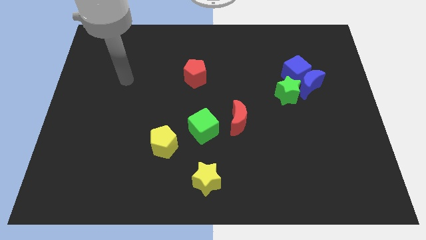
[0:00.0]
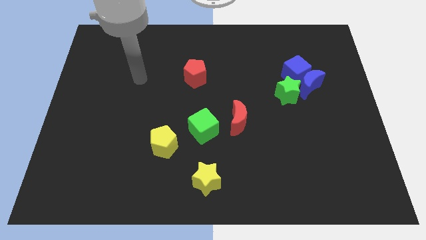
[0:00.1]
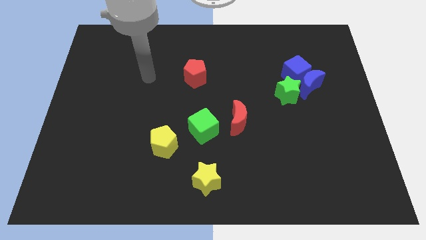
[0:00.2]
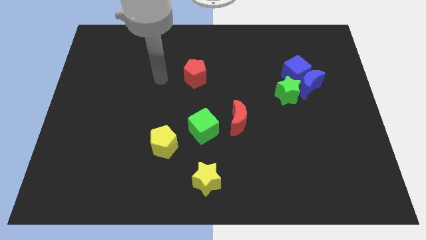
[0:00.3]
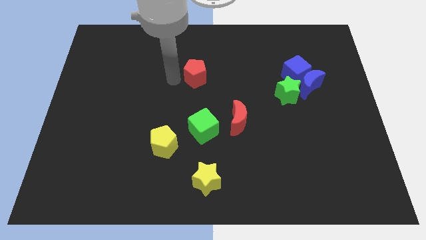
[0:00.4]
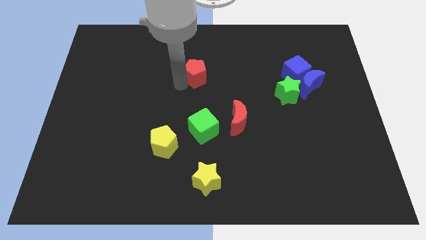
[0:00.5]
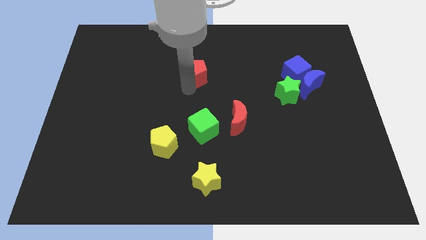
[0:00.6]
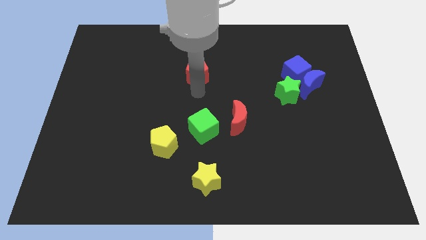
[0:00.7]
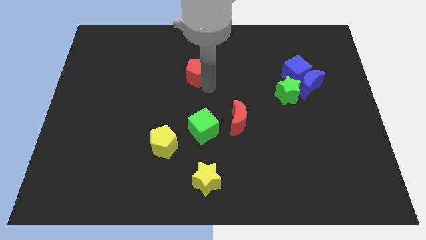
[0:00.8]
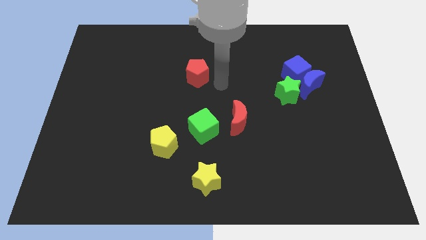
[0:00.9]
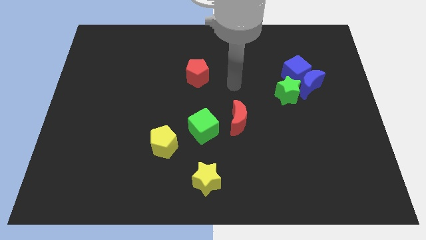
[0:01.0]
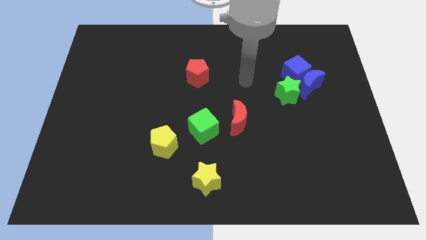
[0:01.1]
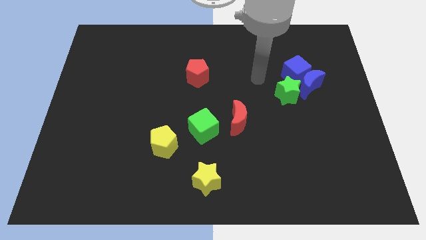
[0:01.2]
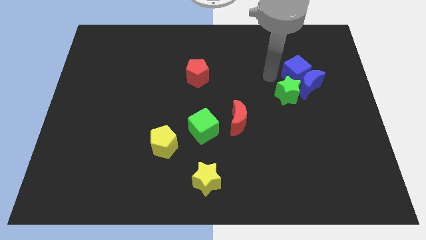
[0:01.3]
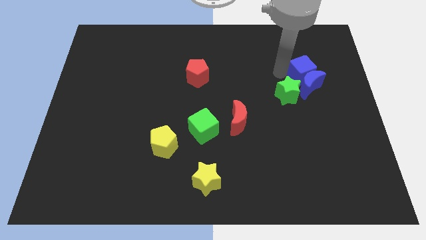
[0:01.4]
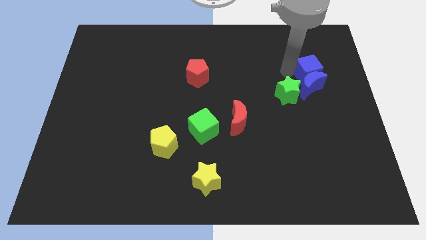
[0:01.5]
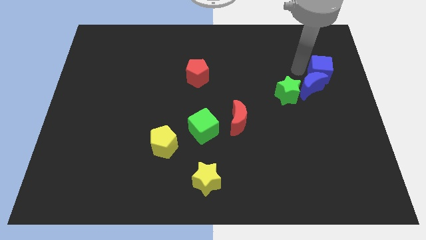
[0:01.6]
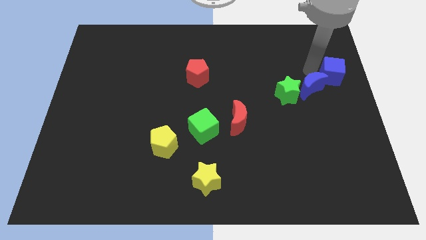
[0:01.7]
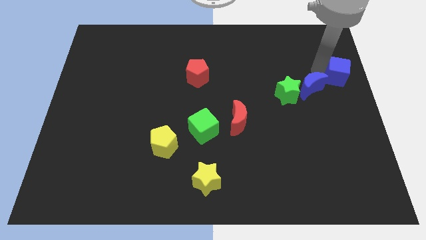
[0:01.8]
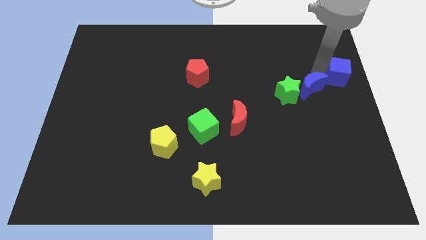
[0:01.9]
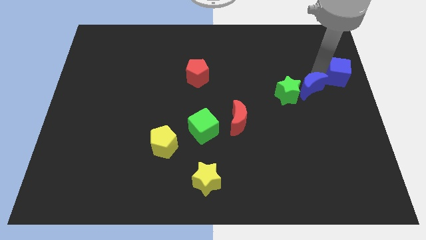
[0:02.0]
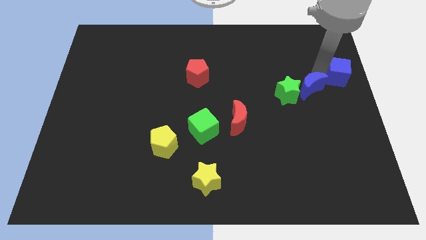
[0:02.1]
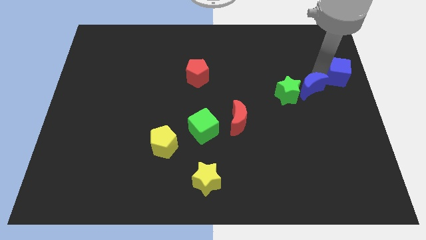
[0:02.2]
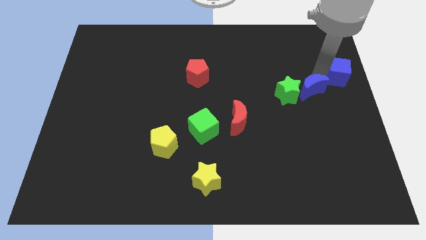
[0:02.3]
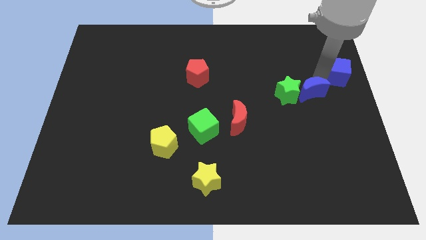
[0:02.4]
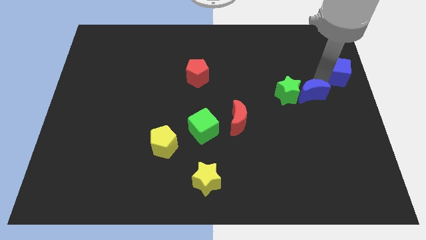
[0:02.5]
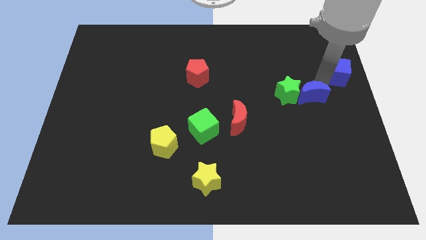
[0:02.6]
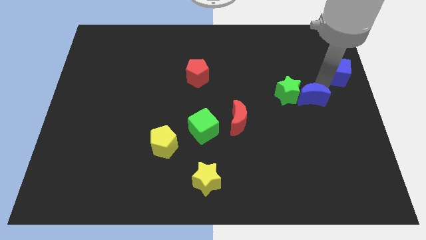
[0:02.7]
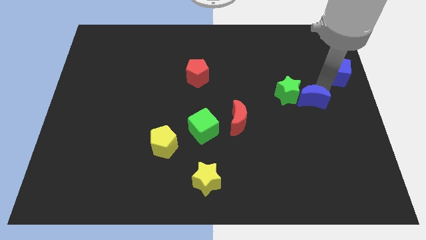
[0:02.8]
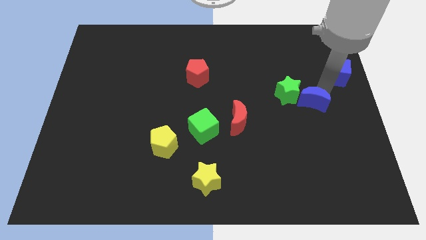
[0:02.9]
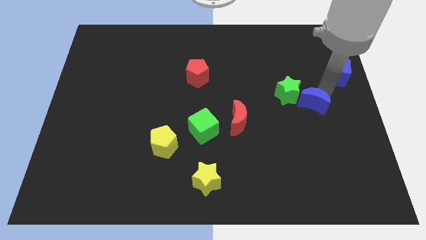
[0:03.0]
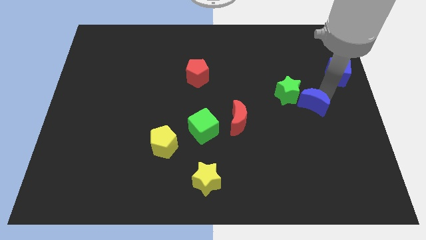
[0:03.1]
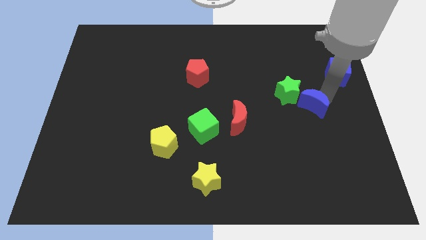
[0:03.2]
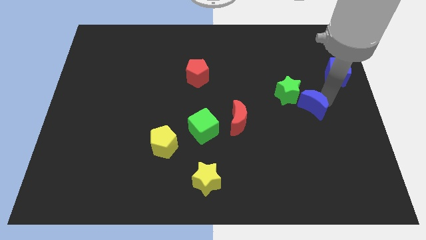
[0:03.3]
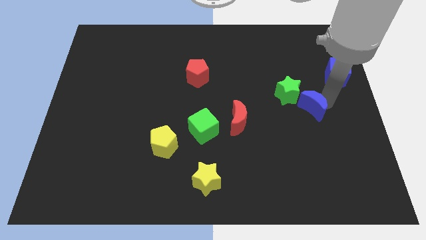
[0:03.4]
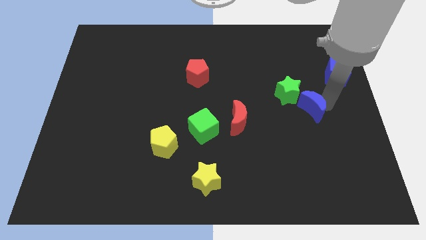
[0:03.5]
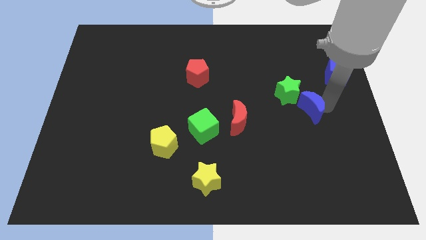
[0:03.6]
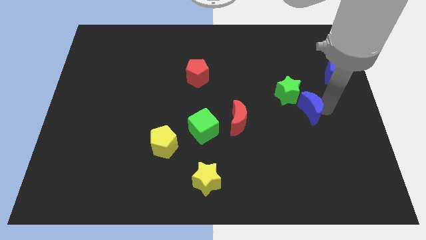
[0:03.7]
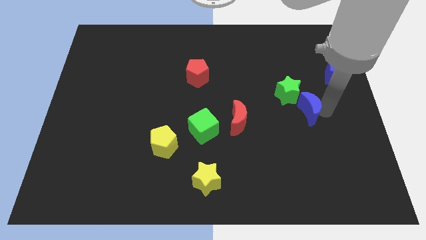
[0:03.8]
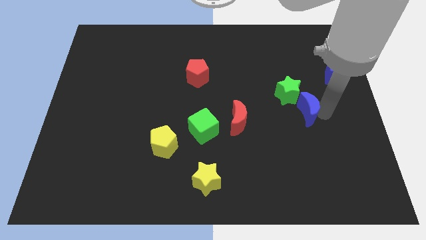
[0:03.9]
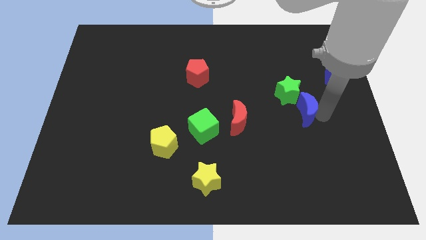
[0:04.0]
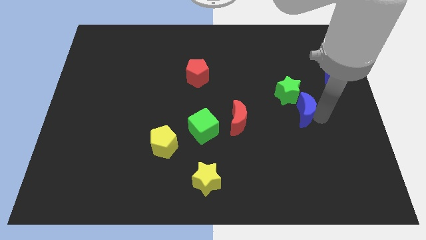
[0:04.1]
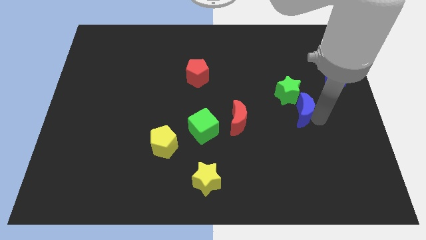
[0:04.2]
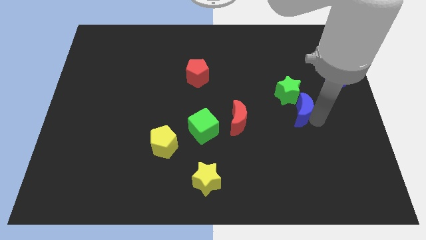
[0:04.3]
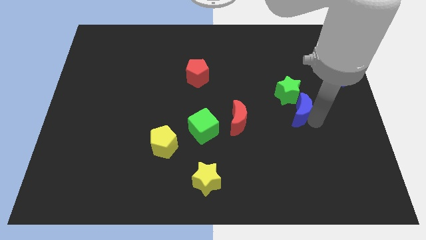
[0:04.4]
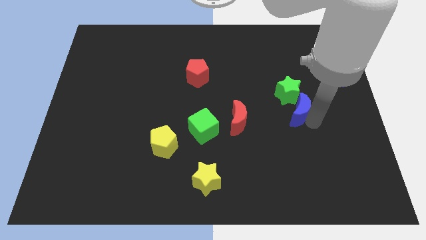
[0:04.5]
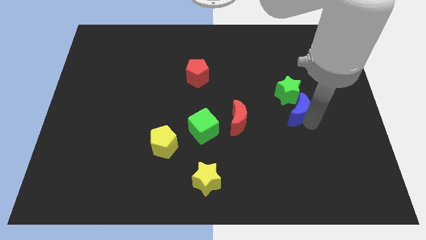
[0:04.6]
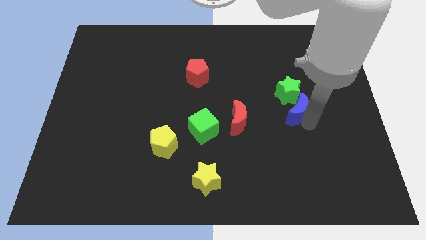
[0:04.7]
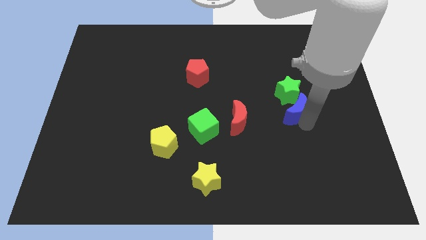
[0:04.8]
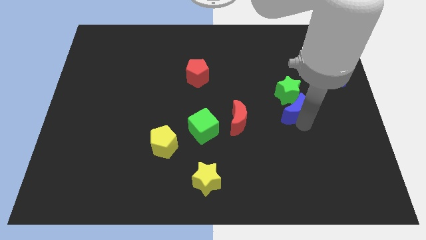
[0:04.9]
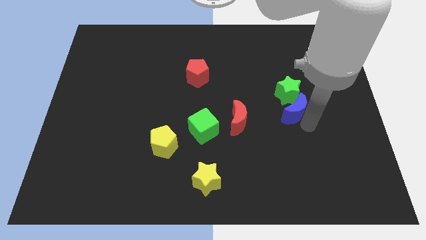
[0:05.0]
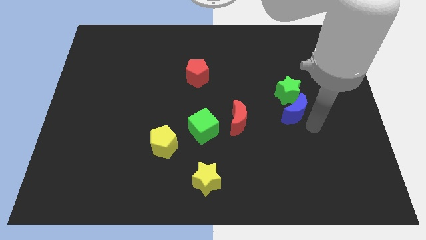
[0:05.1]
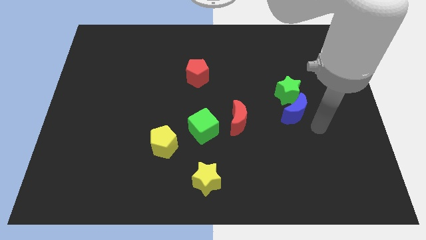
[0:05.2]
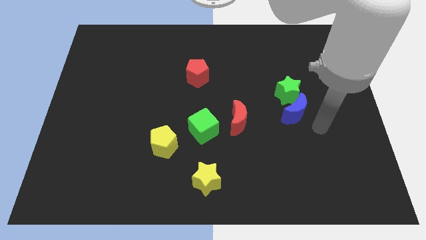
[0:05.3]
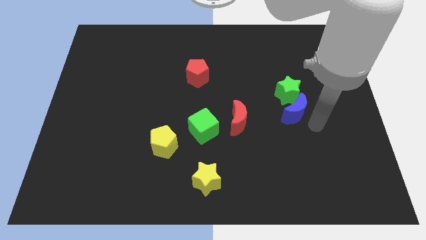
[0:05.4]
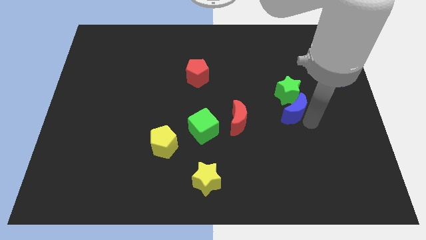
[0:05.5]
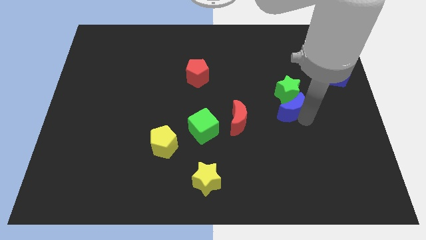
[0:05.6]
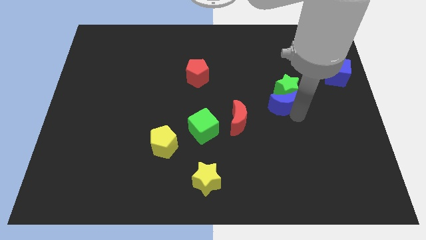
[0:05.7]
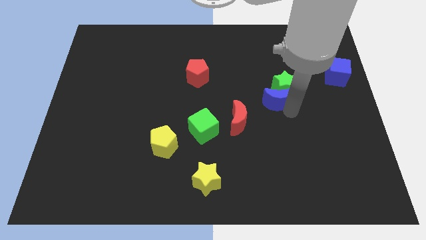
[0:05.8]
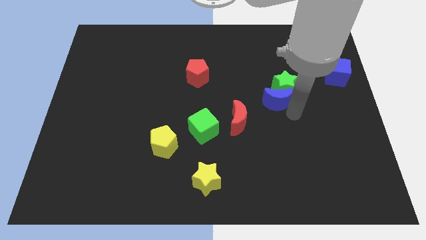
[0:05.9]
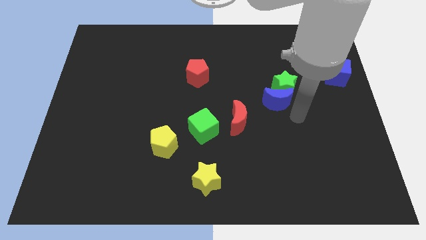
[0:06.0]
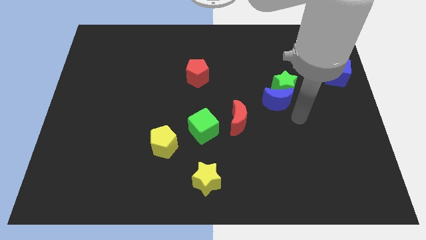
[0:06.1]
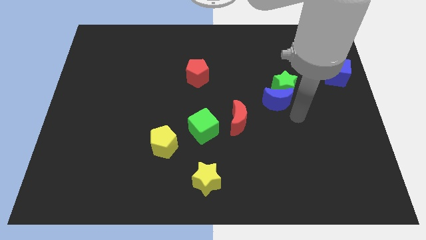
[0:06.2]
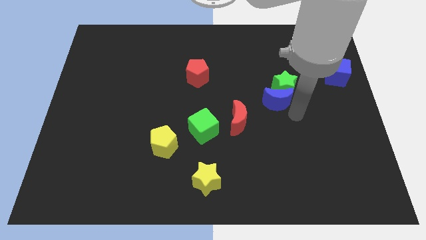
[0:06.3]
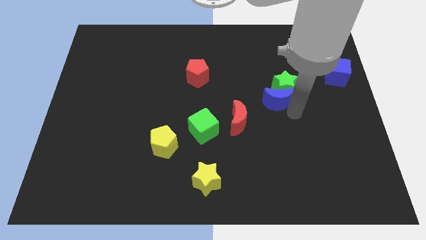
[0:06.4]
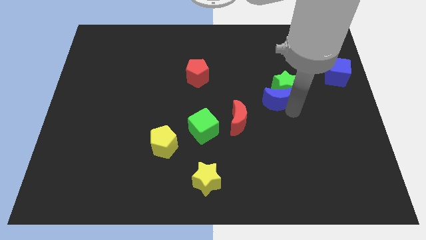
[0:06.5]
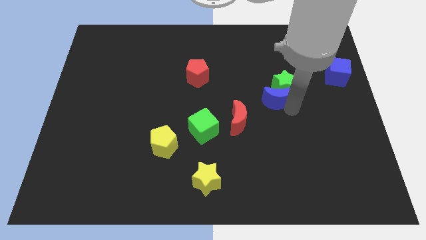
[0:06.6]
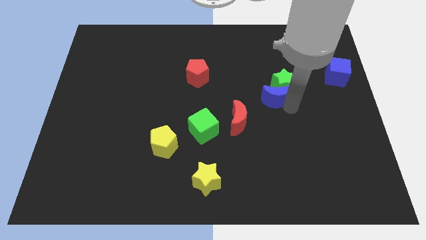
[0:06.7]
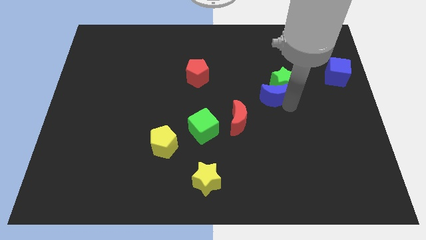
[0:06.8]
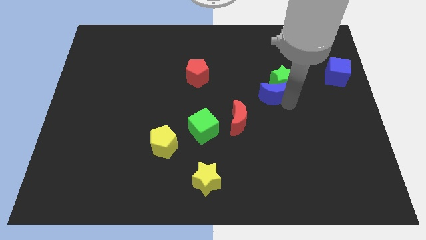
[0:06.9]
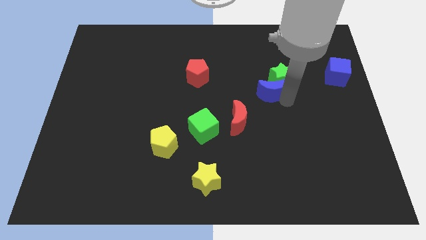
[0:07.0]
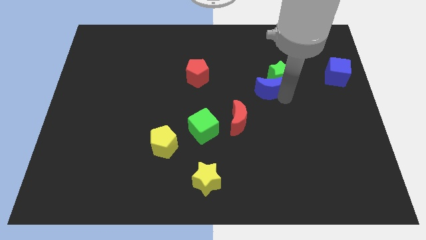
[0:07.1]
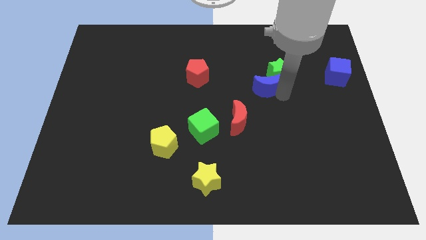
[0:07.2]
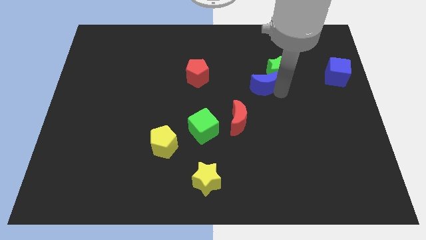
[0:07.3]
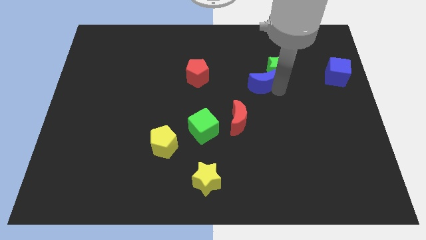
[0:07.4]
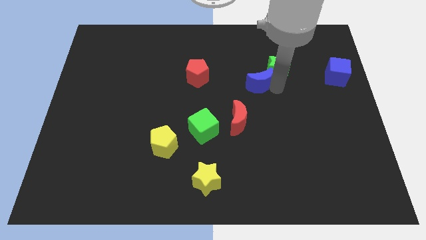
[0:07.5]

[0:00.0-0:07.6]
slide the blue moon to the right of the red pentagon
